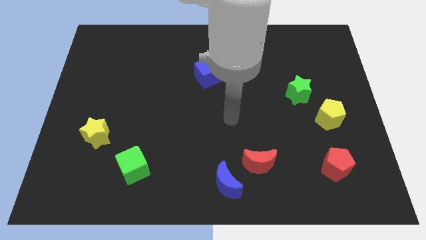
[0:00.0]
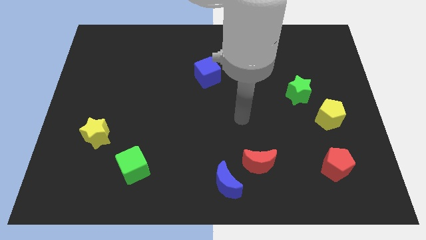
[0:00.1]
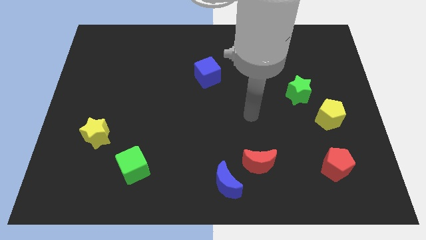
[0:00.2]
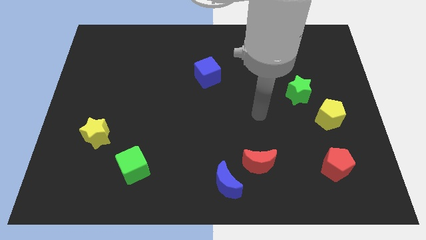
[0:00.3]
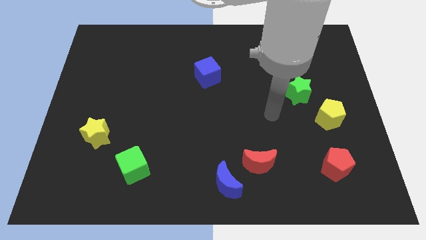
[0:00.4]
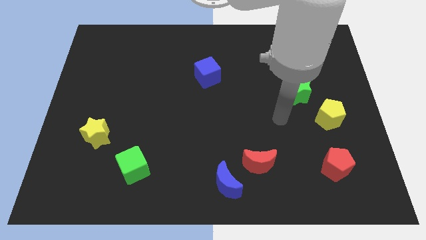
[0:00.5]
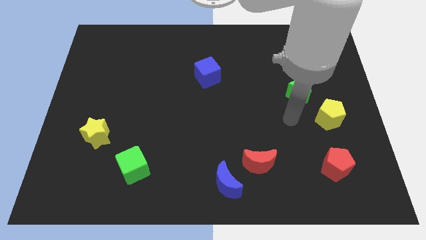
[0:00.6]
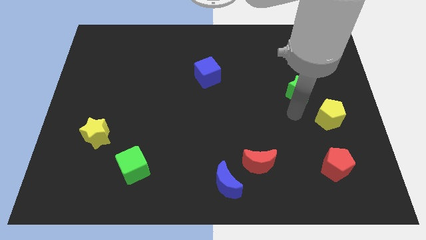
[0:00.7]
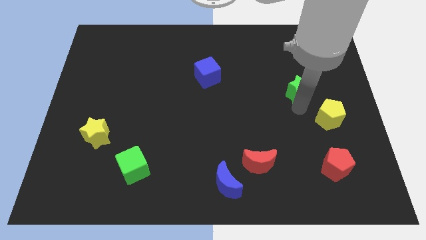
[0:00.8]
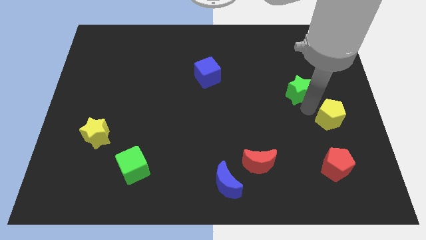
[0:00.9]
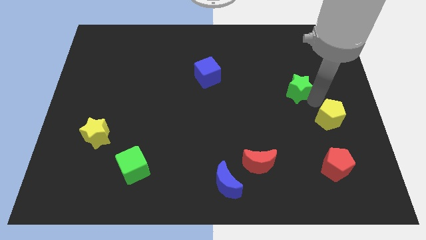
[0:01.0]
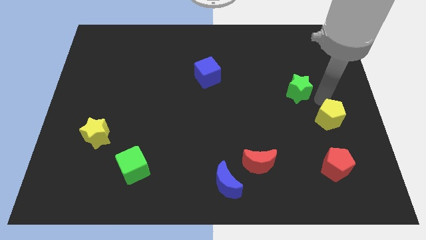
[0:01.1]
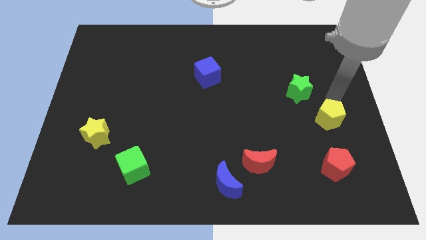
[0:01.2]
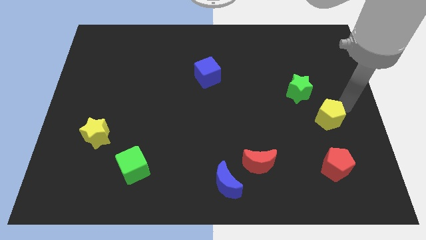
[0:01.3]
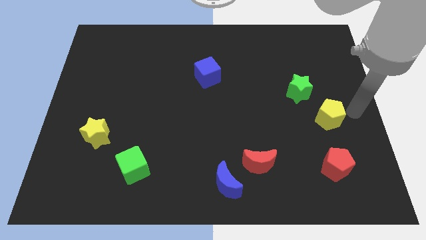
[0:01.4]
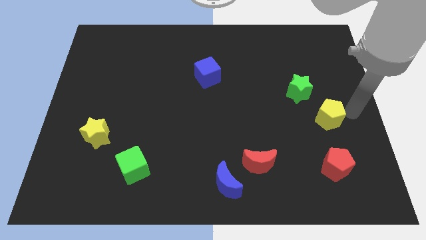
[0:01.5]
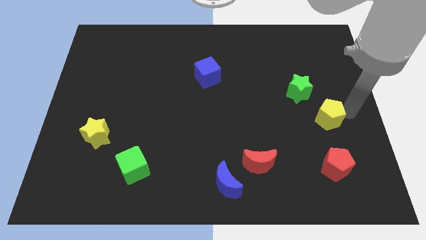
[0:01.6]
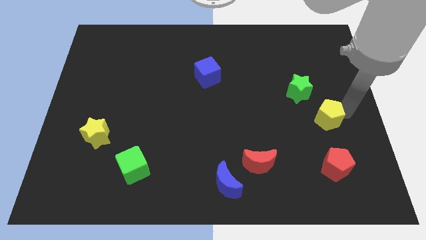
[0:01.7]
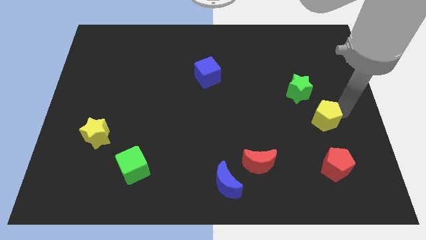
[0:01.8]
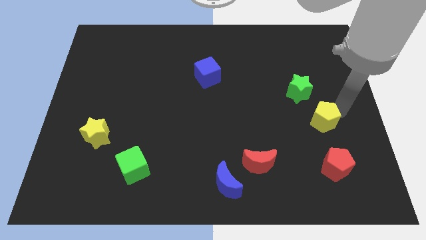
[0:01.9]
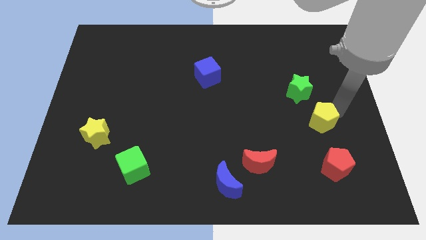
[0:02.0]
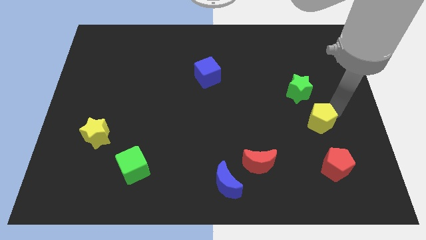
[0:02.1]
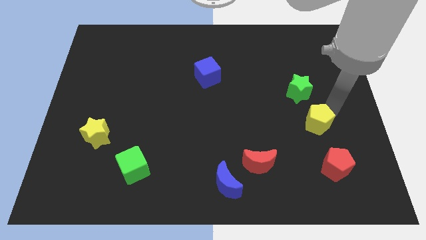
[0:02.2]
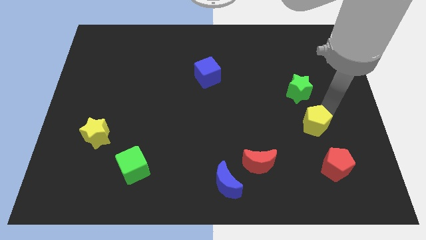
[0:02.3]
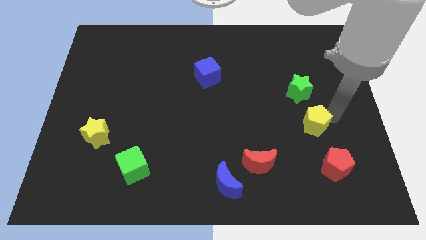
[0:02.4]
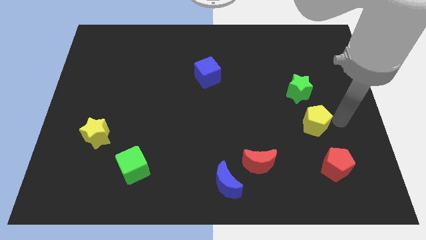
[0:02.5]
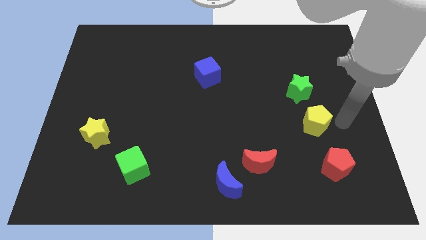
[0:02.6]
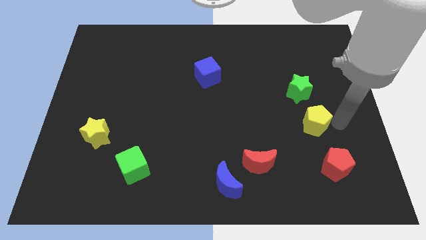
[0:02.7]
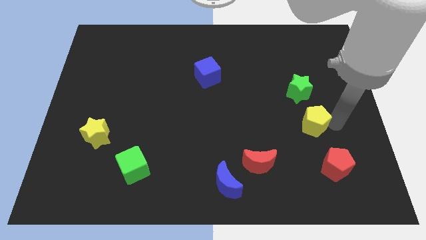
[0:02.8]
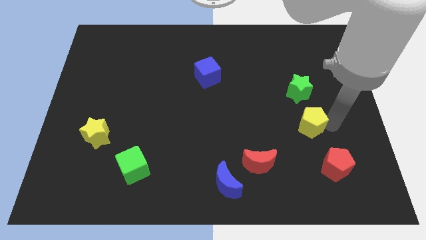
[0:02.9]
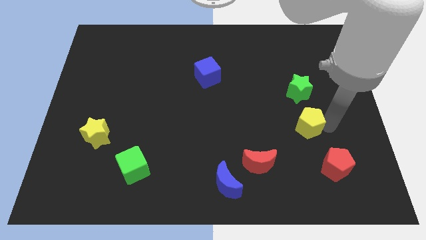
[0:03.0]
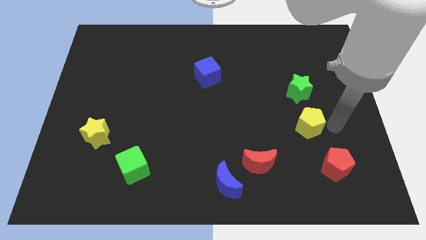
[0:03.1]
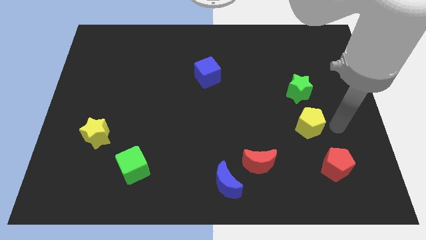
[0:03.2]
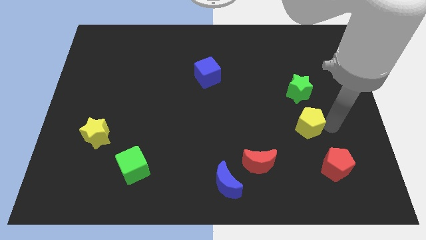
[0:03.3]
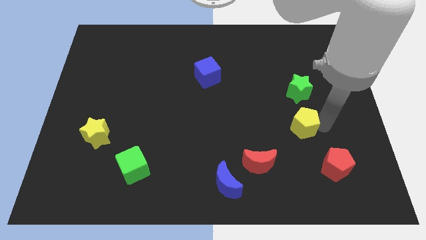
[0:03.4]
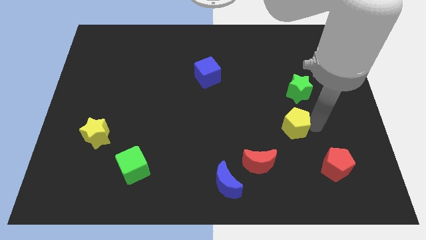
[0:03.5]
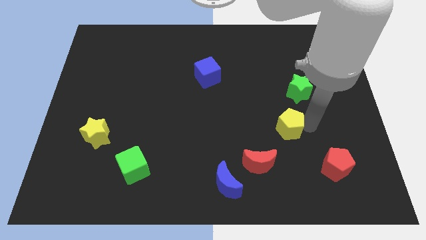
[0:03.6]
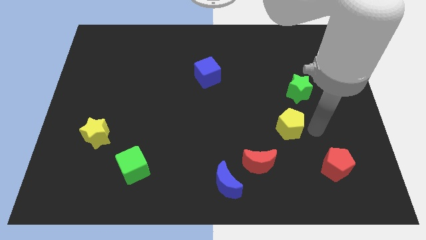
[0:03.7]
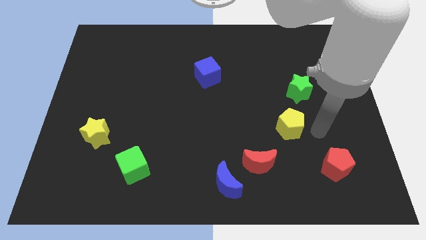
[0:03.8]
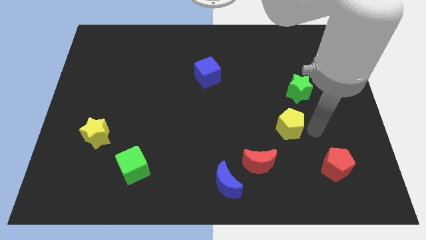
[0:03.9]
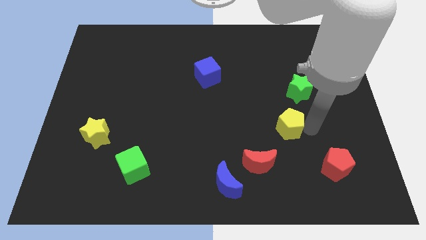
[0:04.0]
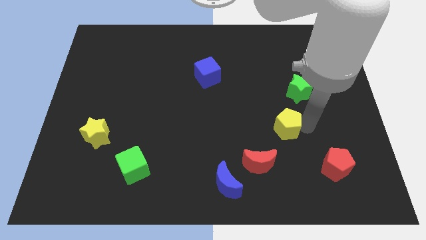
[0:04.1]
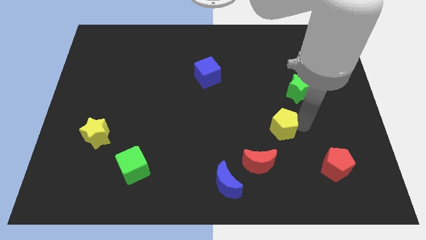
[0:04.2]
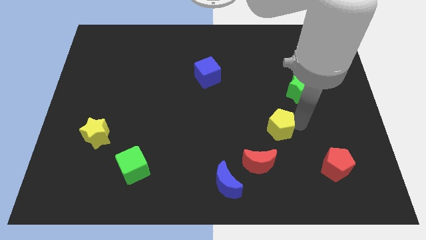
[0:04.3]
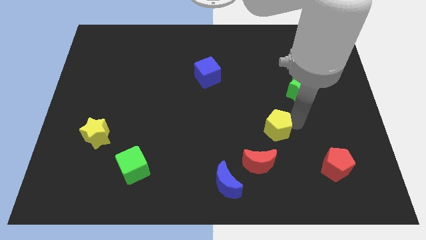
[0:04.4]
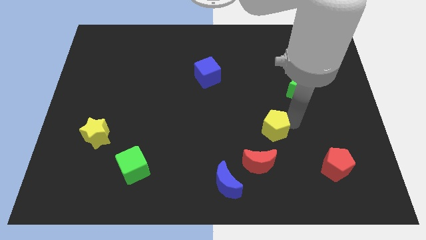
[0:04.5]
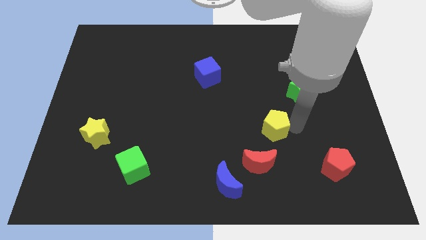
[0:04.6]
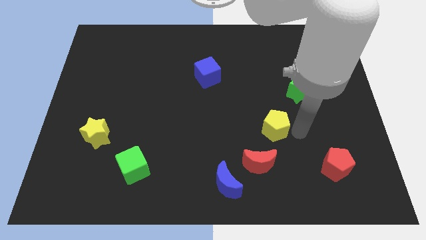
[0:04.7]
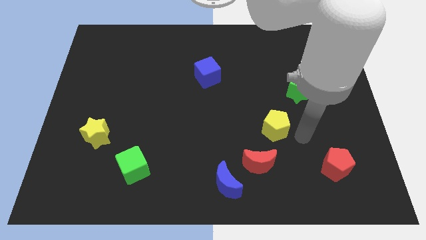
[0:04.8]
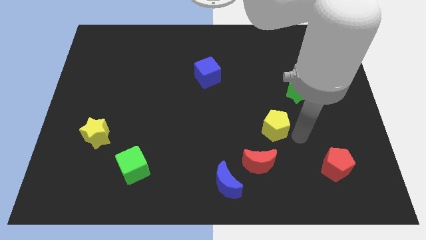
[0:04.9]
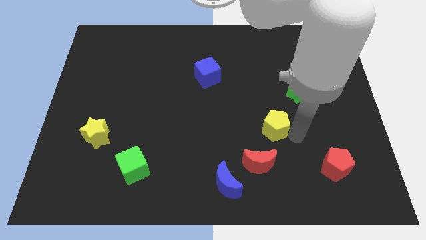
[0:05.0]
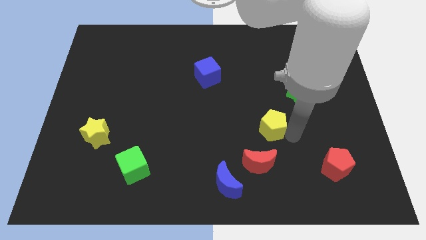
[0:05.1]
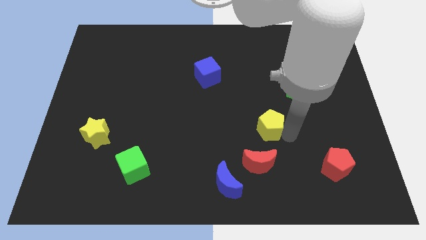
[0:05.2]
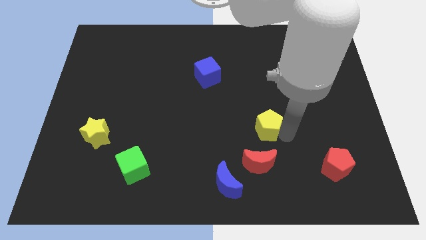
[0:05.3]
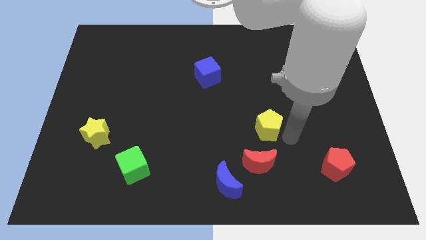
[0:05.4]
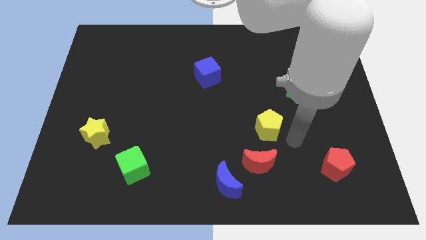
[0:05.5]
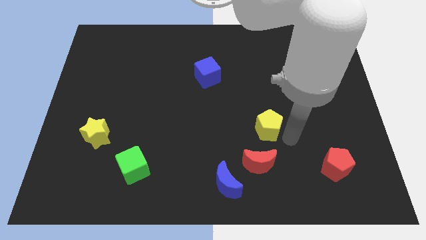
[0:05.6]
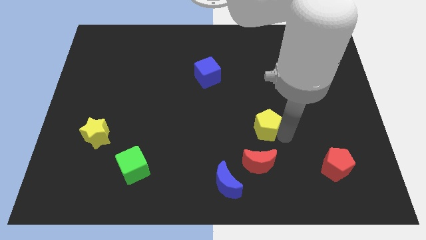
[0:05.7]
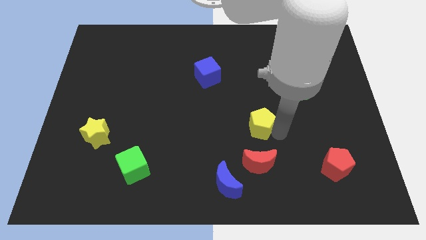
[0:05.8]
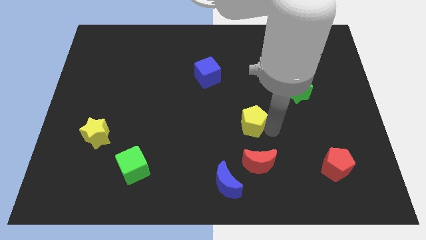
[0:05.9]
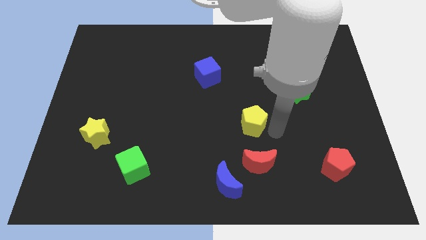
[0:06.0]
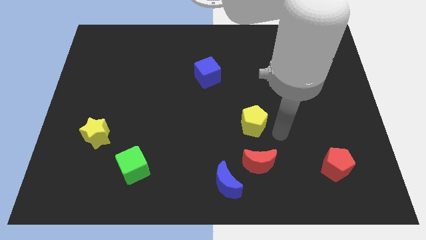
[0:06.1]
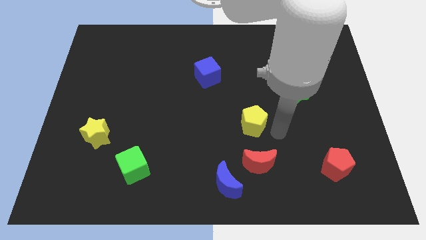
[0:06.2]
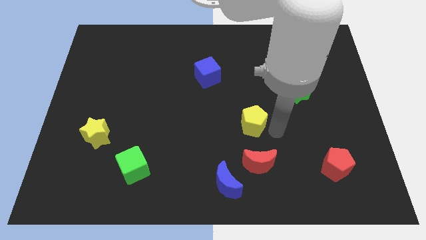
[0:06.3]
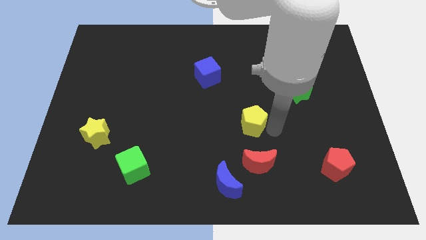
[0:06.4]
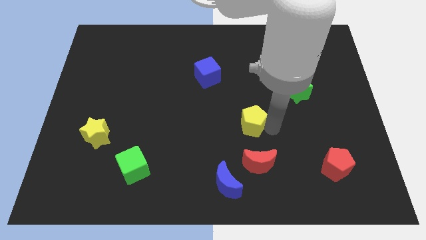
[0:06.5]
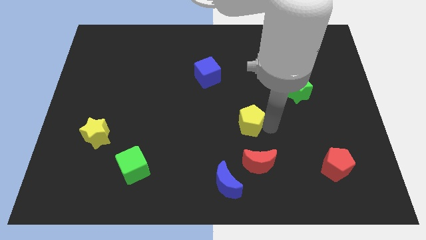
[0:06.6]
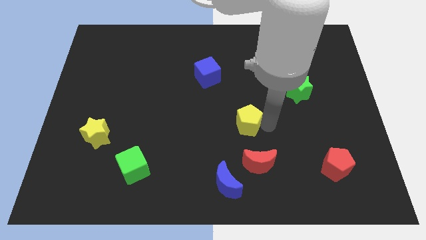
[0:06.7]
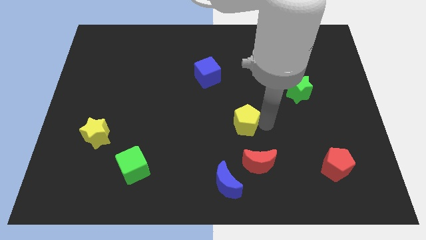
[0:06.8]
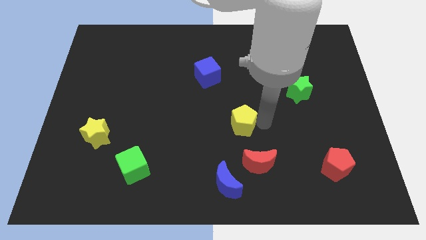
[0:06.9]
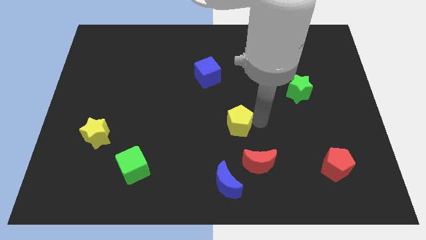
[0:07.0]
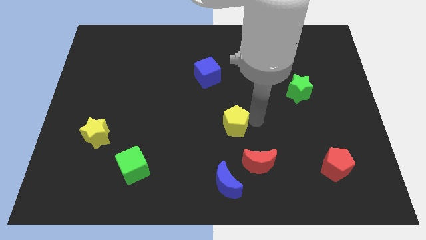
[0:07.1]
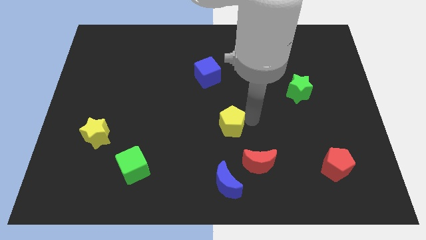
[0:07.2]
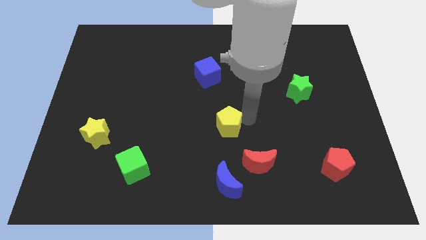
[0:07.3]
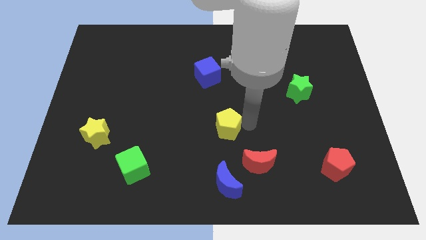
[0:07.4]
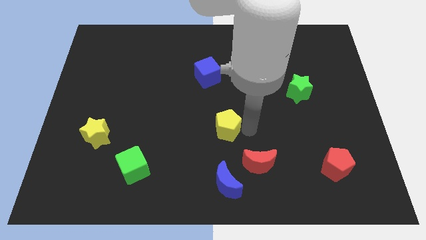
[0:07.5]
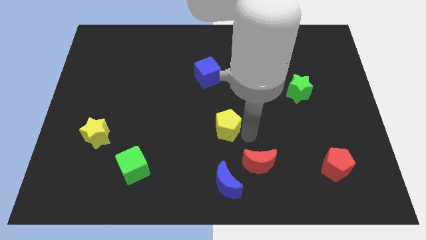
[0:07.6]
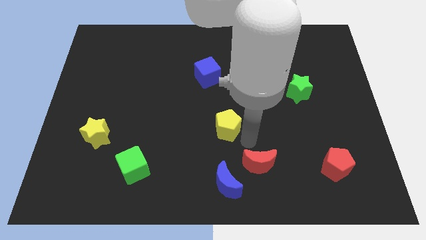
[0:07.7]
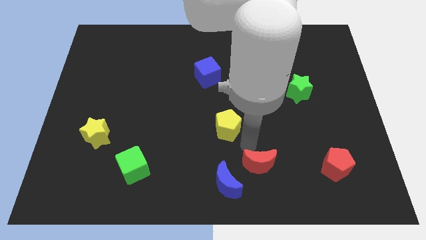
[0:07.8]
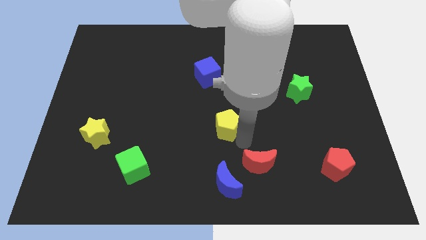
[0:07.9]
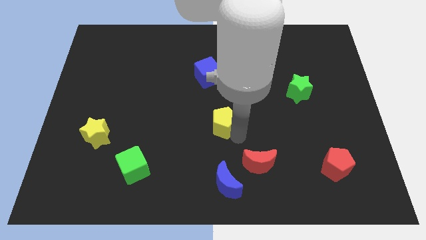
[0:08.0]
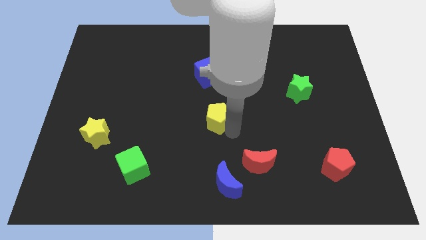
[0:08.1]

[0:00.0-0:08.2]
put the yellow pentagon to the bottom of the blue cube
